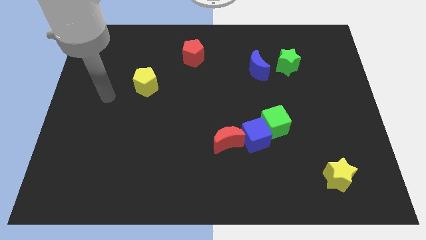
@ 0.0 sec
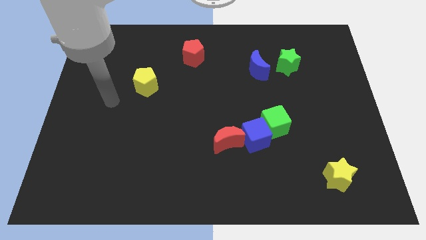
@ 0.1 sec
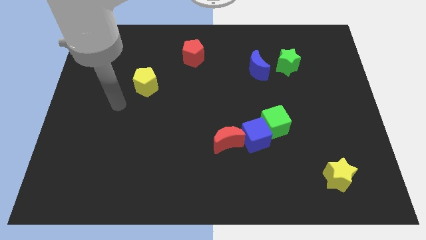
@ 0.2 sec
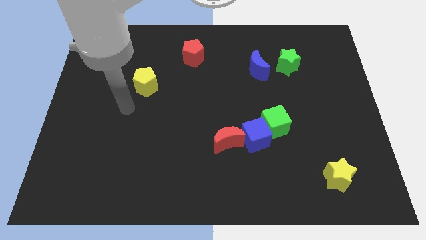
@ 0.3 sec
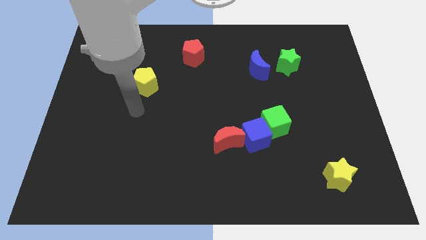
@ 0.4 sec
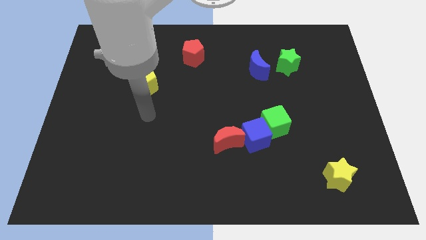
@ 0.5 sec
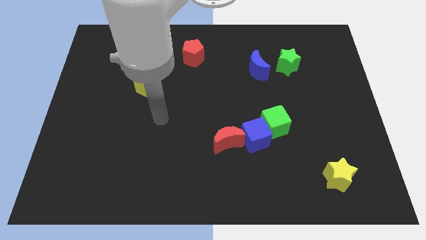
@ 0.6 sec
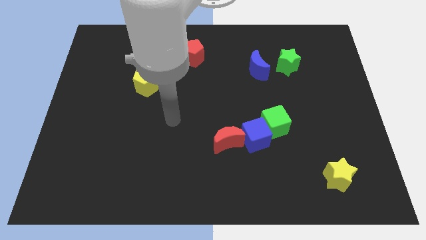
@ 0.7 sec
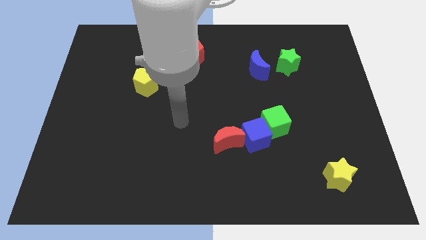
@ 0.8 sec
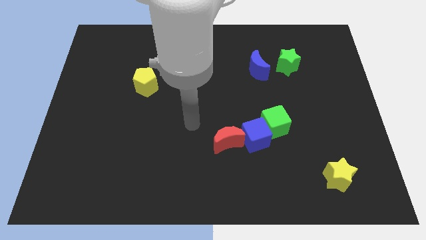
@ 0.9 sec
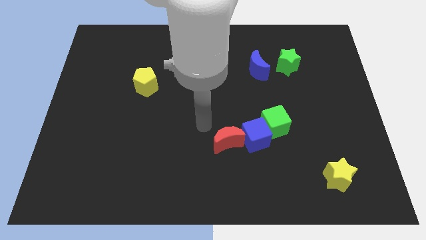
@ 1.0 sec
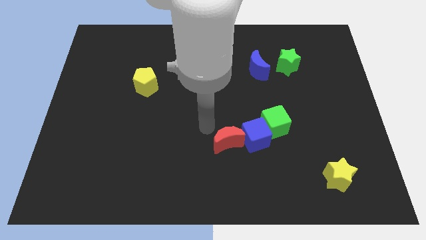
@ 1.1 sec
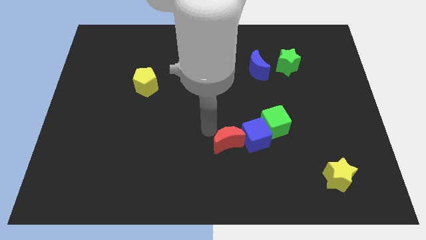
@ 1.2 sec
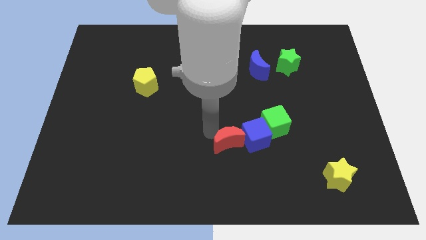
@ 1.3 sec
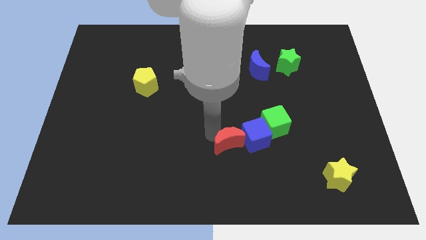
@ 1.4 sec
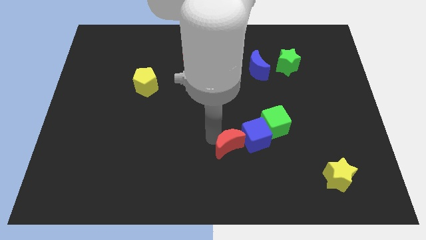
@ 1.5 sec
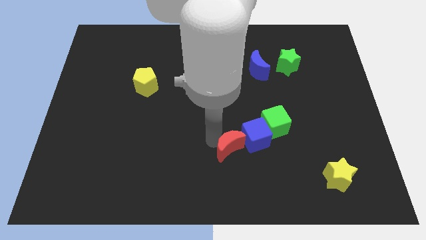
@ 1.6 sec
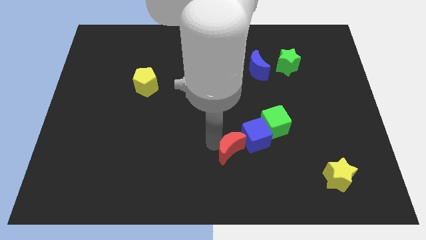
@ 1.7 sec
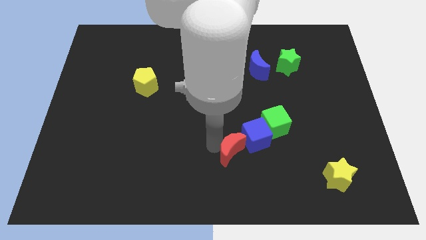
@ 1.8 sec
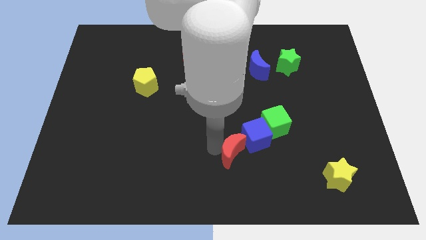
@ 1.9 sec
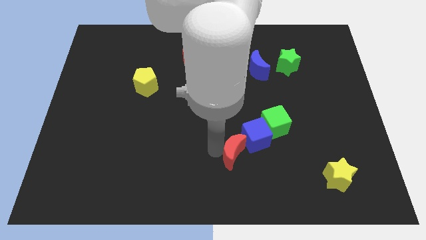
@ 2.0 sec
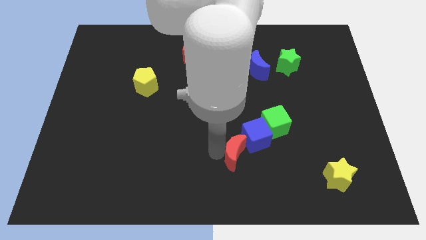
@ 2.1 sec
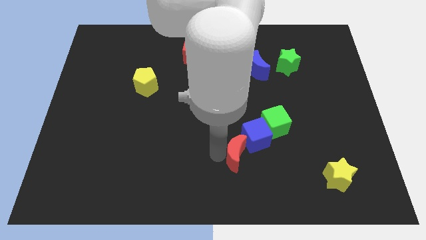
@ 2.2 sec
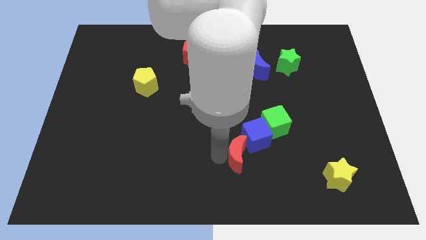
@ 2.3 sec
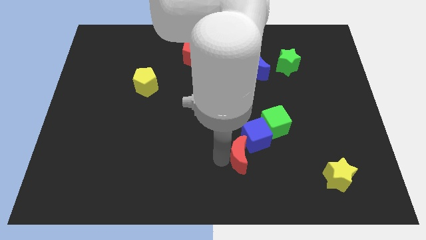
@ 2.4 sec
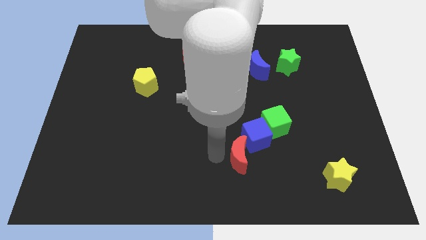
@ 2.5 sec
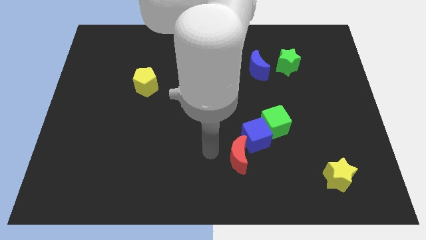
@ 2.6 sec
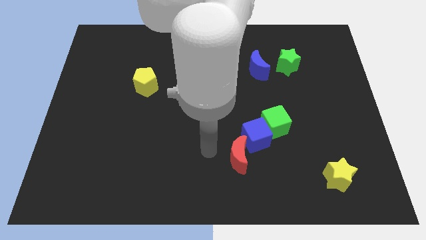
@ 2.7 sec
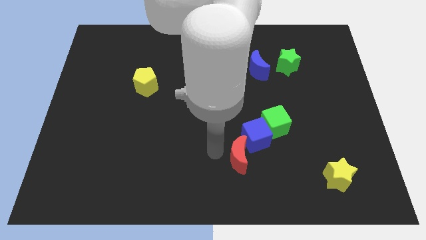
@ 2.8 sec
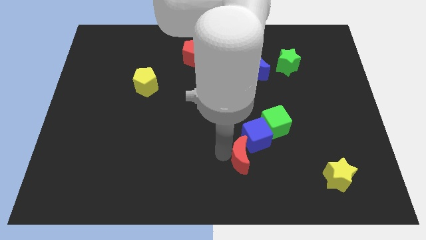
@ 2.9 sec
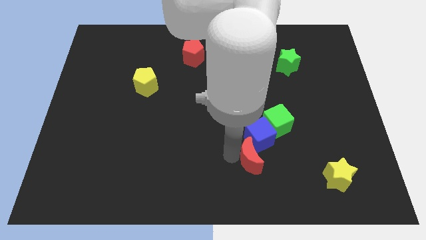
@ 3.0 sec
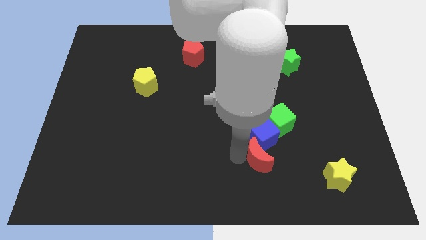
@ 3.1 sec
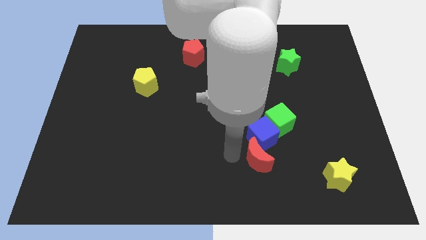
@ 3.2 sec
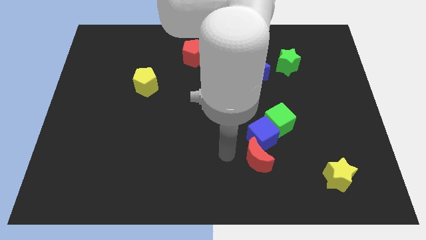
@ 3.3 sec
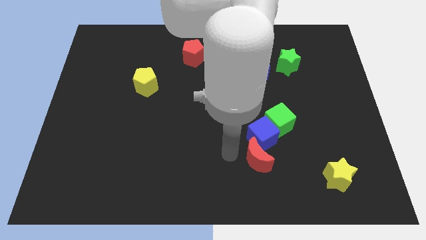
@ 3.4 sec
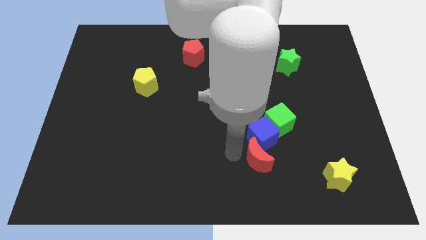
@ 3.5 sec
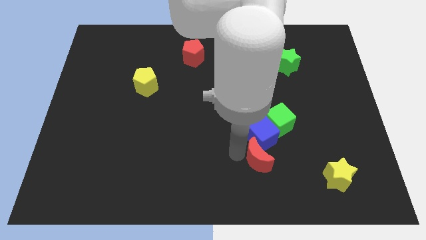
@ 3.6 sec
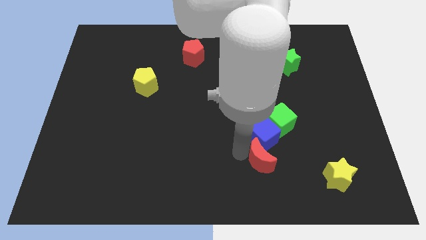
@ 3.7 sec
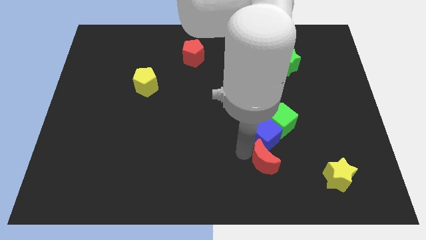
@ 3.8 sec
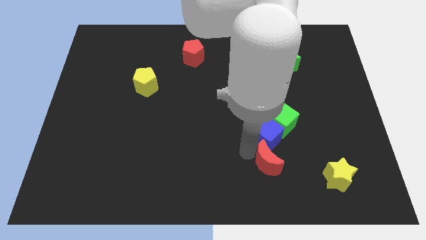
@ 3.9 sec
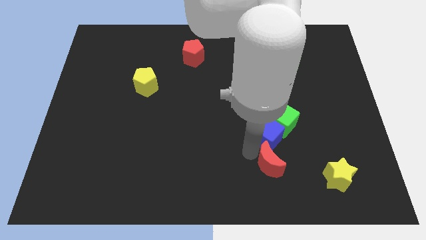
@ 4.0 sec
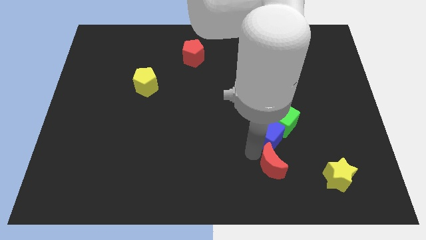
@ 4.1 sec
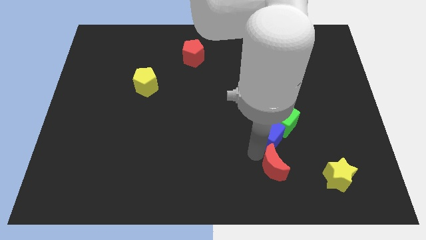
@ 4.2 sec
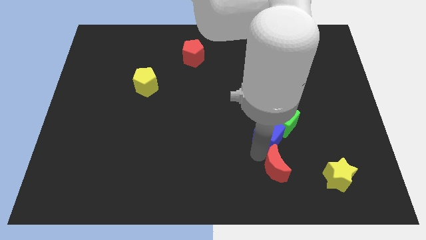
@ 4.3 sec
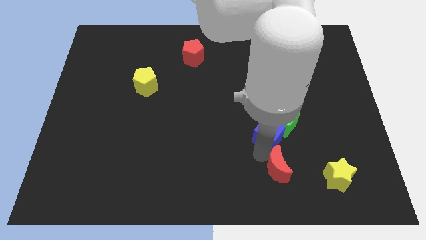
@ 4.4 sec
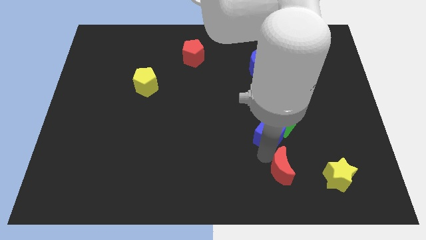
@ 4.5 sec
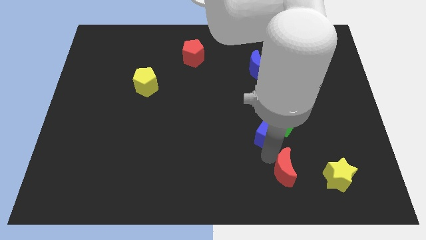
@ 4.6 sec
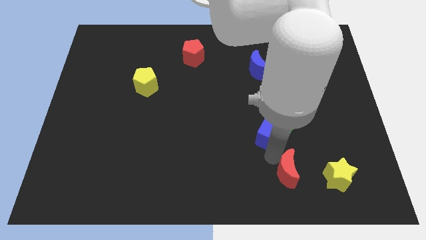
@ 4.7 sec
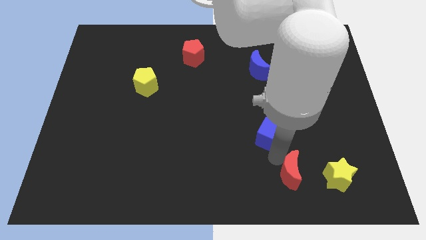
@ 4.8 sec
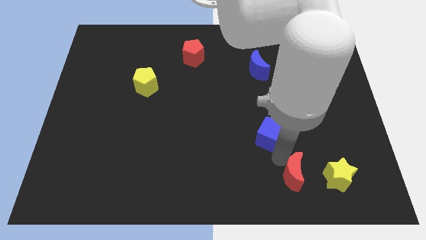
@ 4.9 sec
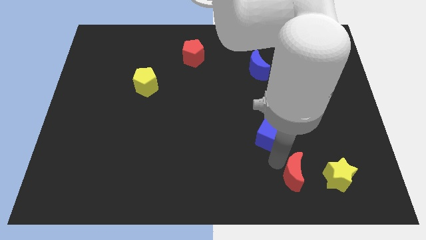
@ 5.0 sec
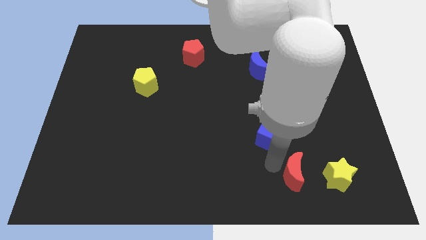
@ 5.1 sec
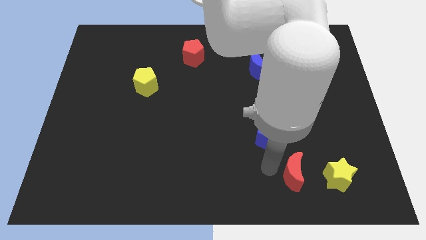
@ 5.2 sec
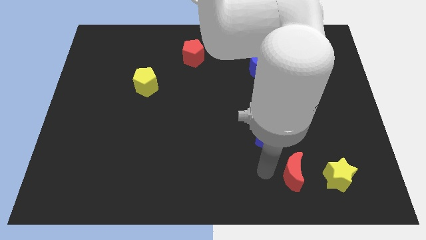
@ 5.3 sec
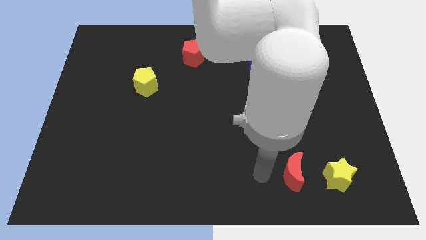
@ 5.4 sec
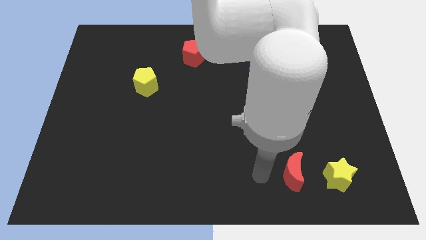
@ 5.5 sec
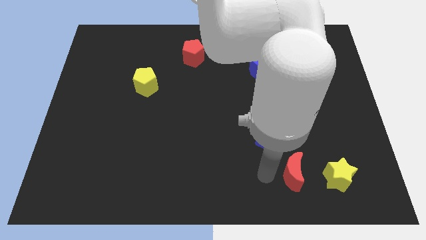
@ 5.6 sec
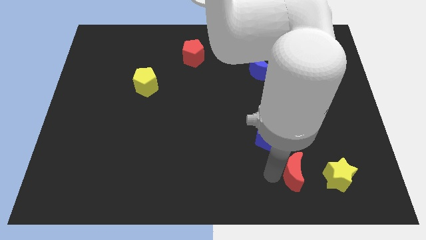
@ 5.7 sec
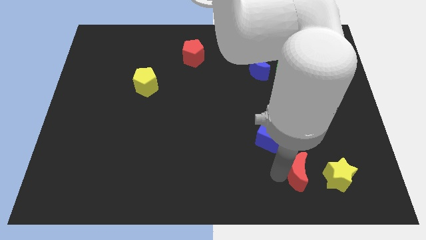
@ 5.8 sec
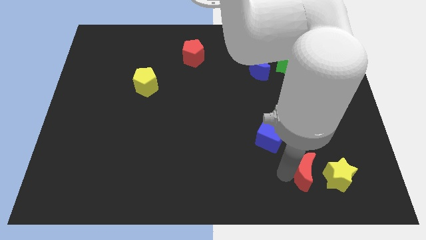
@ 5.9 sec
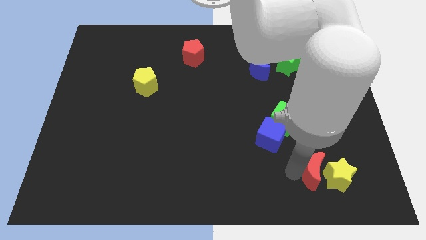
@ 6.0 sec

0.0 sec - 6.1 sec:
push the red moon to the yellow star

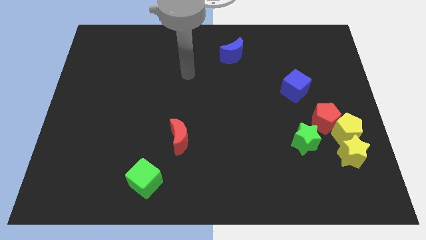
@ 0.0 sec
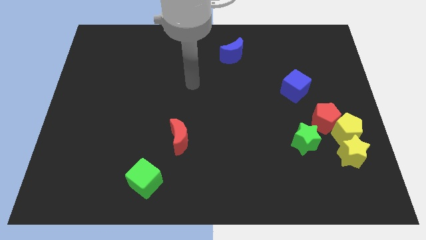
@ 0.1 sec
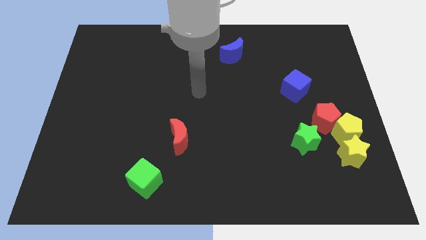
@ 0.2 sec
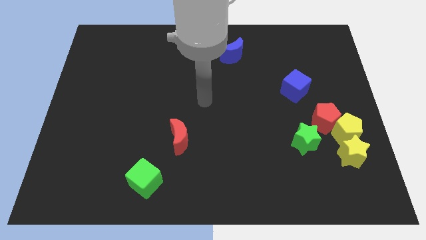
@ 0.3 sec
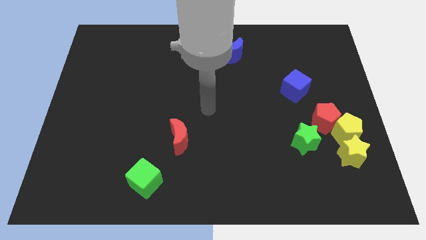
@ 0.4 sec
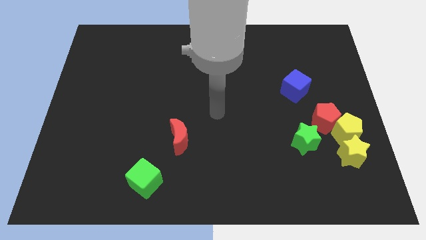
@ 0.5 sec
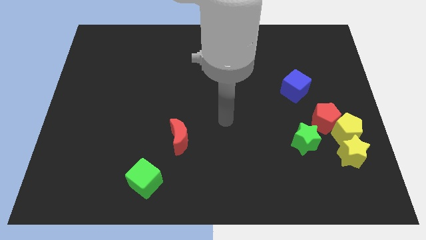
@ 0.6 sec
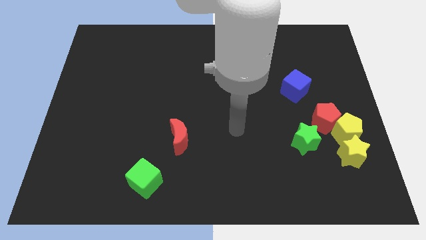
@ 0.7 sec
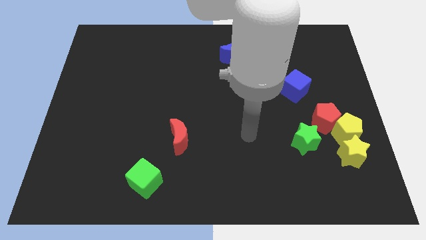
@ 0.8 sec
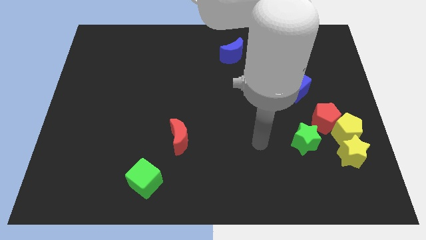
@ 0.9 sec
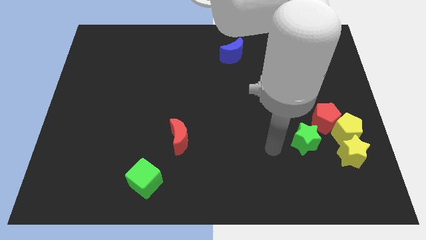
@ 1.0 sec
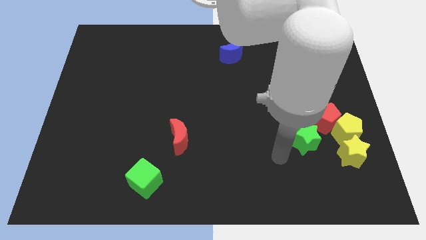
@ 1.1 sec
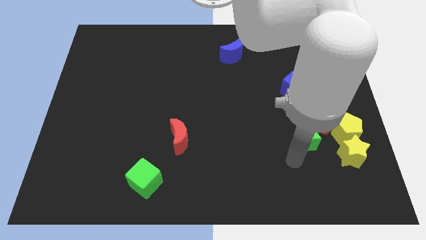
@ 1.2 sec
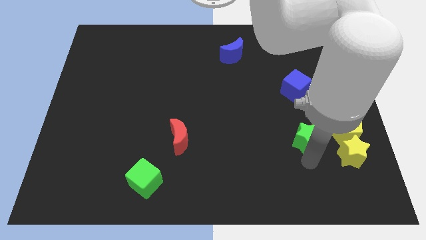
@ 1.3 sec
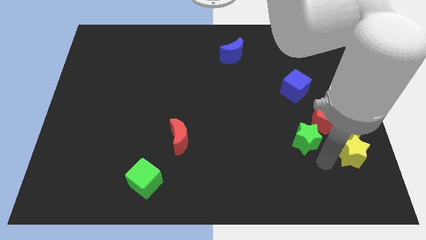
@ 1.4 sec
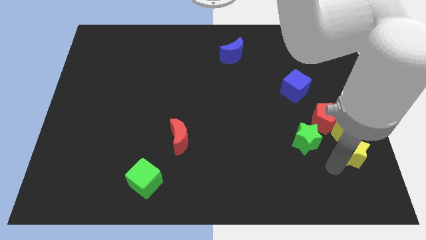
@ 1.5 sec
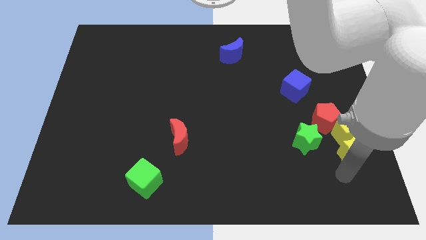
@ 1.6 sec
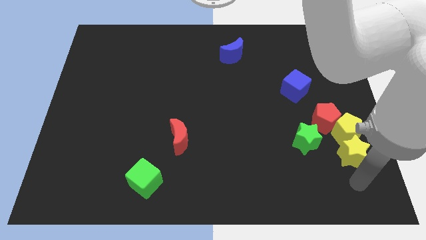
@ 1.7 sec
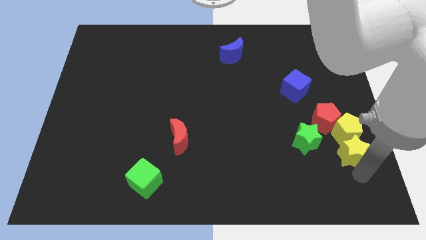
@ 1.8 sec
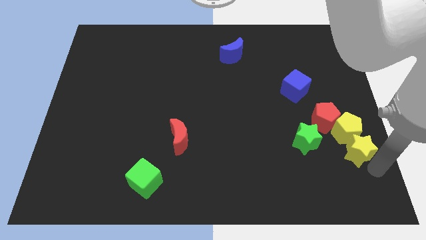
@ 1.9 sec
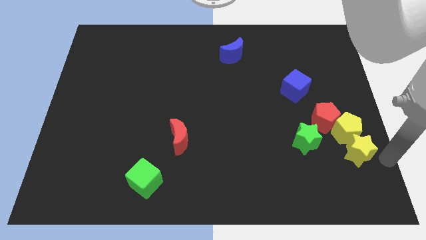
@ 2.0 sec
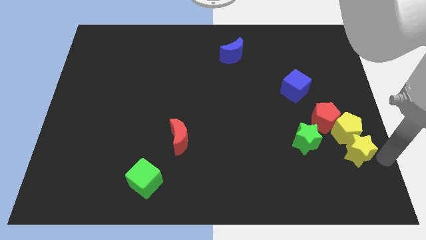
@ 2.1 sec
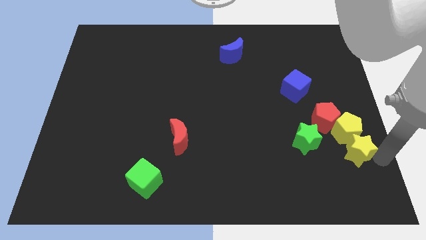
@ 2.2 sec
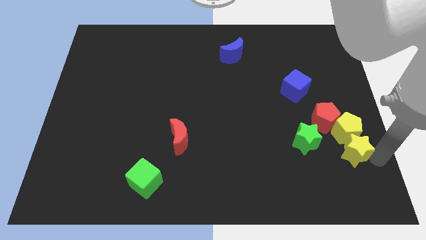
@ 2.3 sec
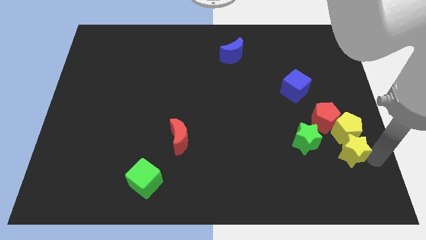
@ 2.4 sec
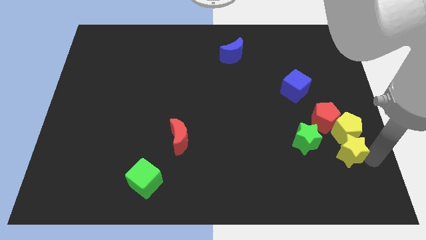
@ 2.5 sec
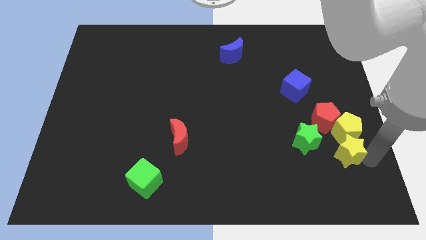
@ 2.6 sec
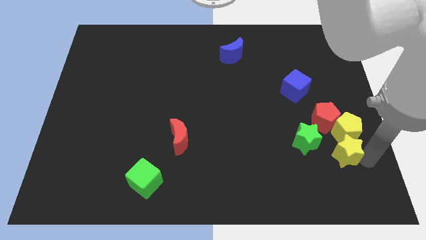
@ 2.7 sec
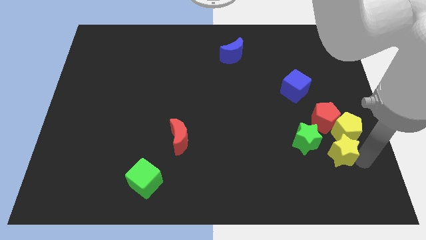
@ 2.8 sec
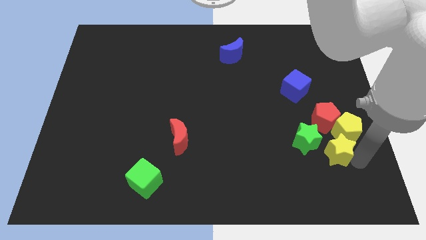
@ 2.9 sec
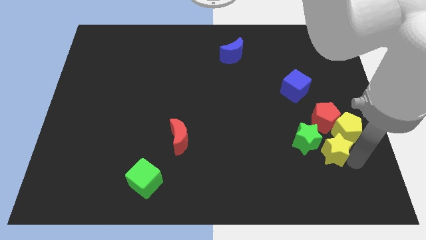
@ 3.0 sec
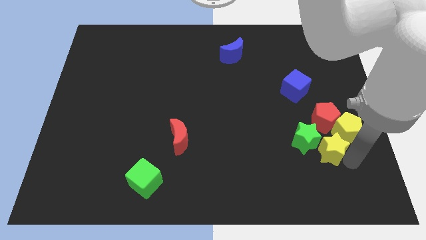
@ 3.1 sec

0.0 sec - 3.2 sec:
slide the yellow star close to the green star
